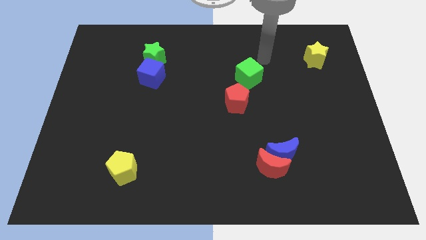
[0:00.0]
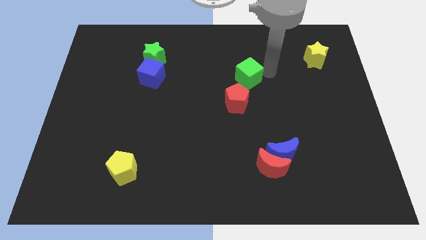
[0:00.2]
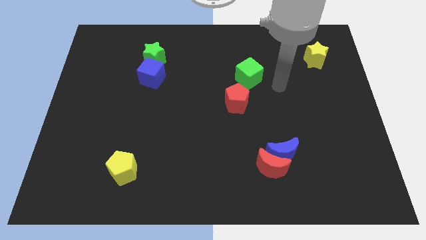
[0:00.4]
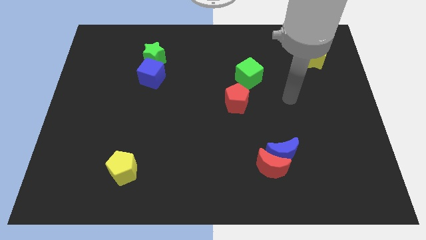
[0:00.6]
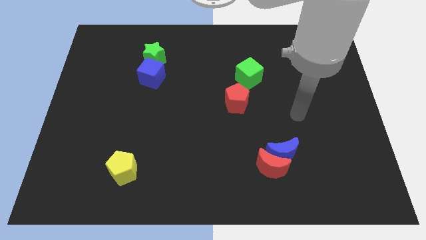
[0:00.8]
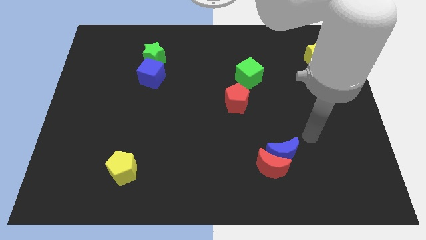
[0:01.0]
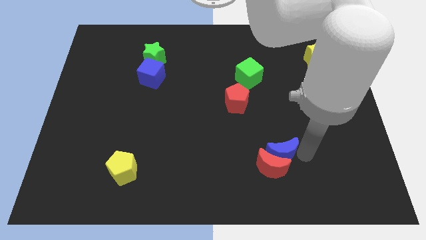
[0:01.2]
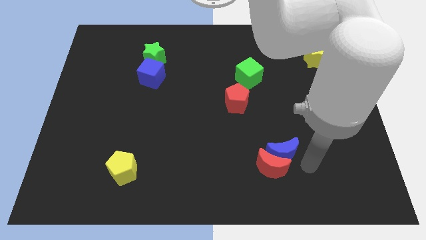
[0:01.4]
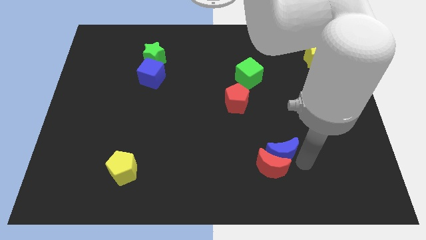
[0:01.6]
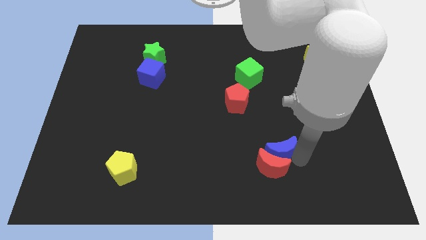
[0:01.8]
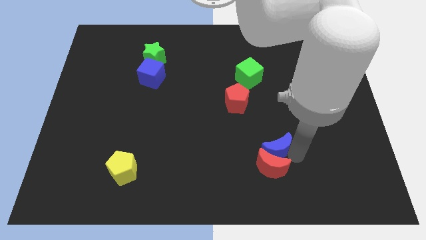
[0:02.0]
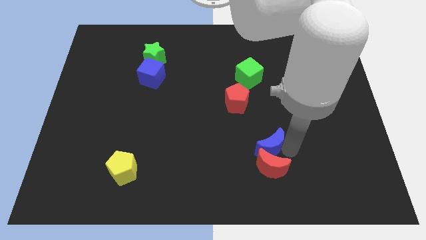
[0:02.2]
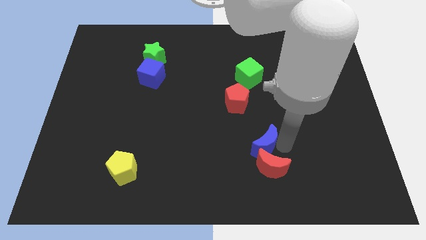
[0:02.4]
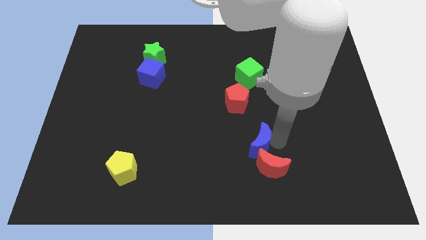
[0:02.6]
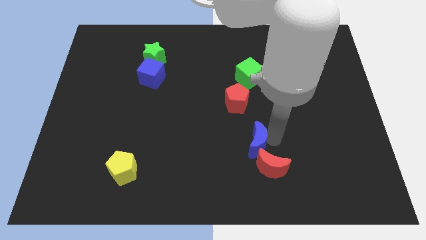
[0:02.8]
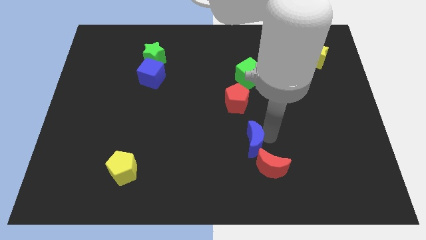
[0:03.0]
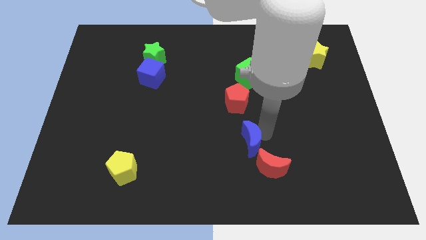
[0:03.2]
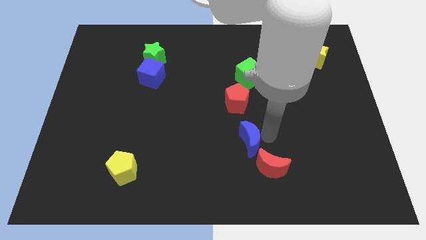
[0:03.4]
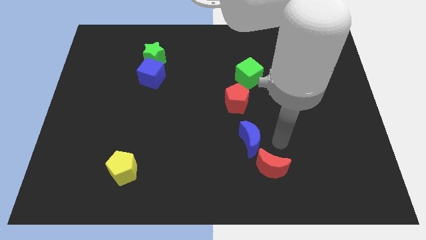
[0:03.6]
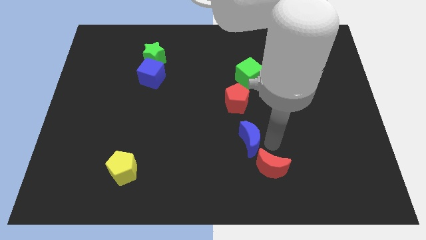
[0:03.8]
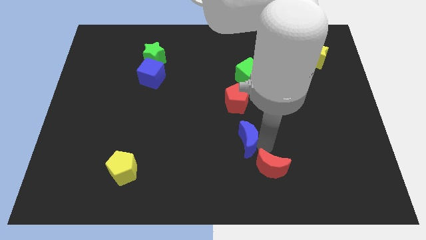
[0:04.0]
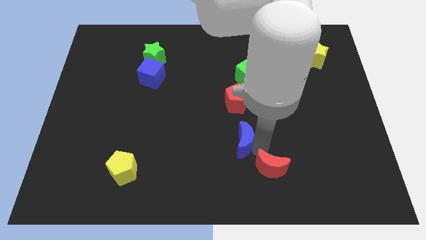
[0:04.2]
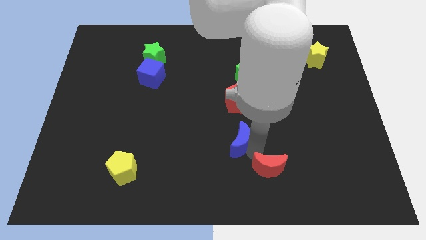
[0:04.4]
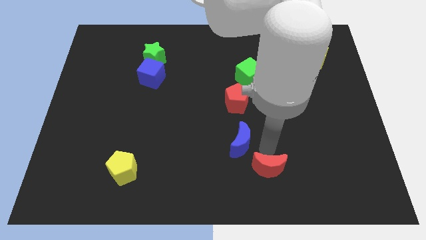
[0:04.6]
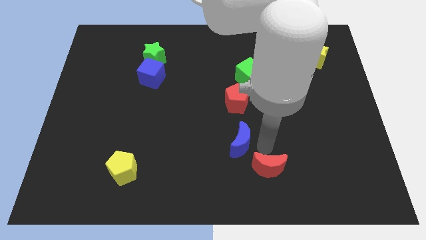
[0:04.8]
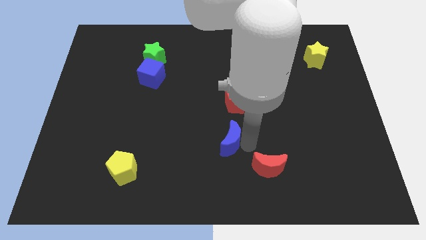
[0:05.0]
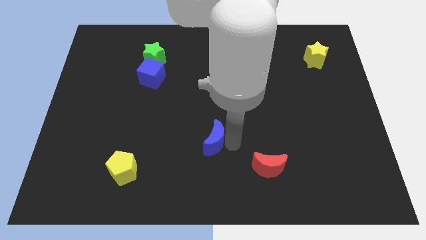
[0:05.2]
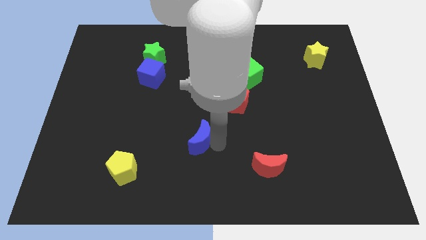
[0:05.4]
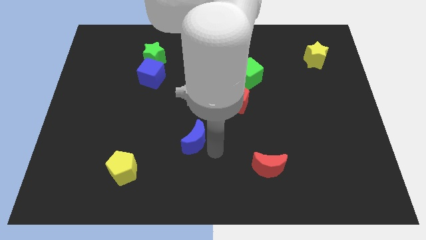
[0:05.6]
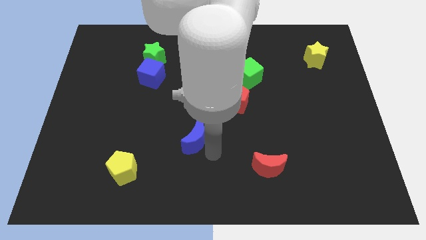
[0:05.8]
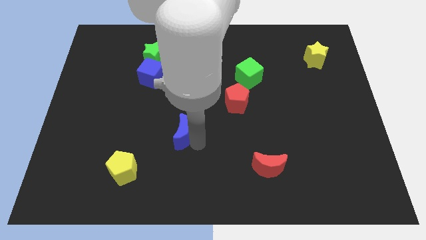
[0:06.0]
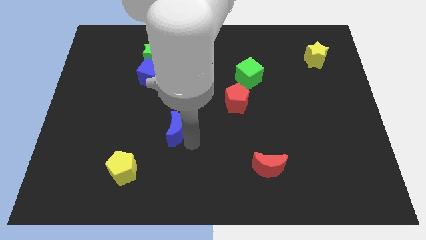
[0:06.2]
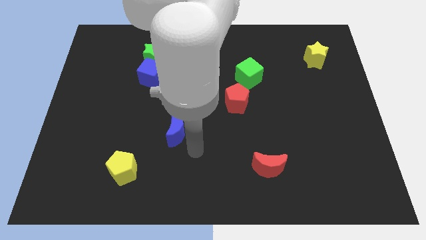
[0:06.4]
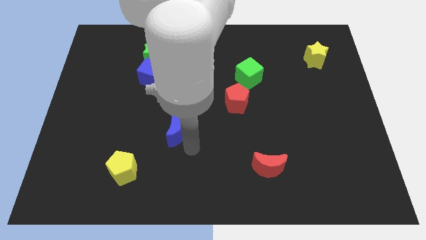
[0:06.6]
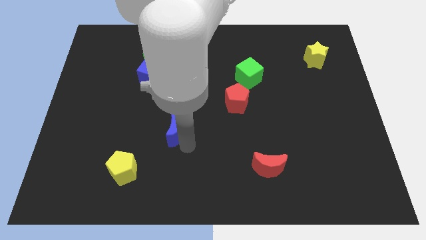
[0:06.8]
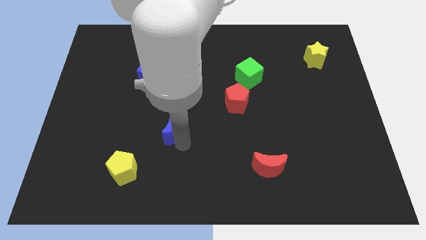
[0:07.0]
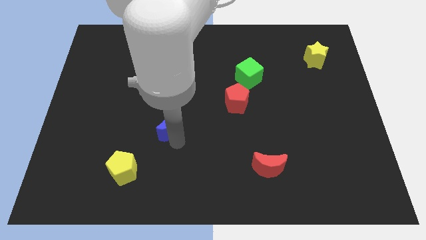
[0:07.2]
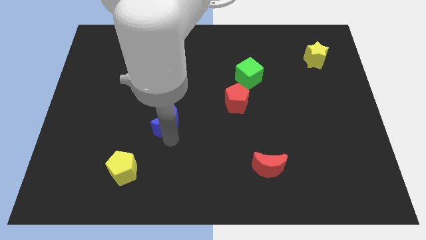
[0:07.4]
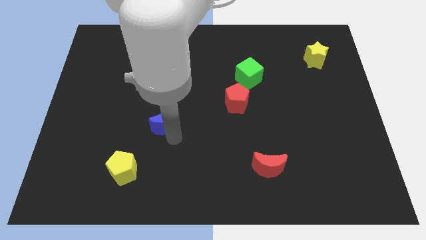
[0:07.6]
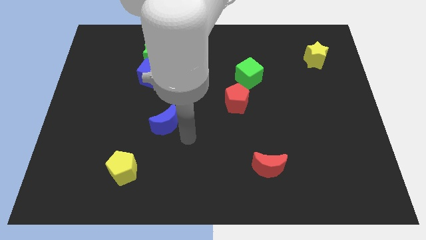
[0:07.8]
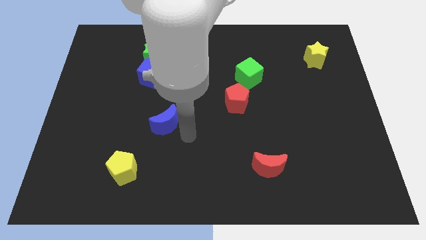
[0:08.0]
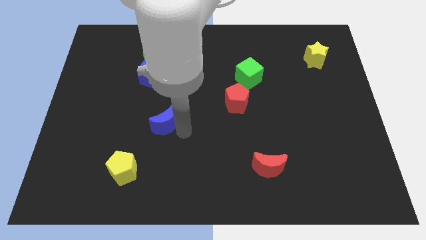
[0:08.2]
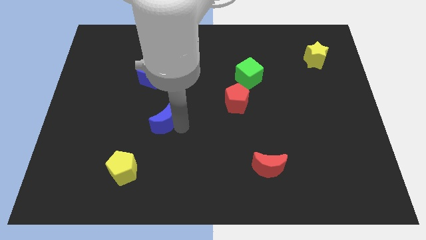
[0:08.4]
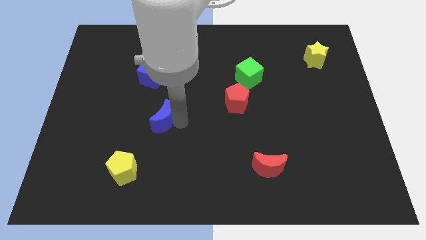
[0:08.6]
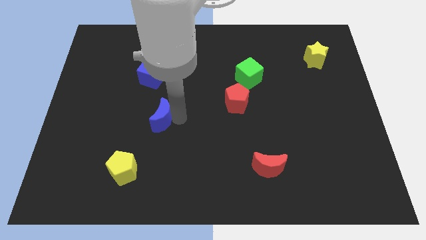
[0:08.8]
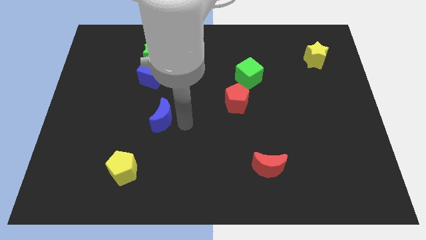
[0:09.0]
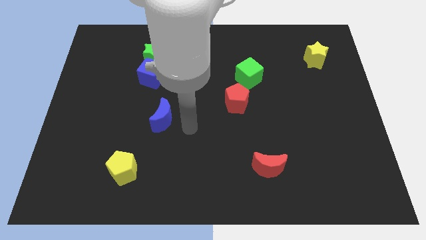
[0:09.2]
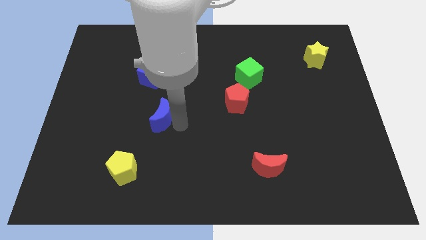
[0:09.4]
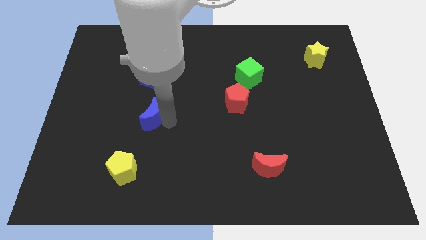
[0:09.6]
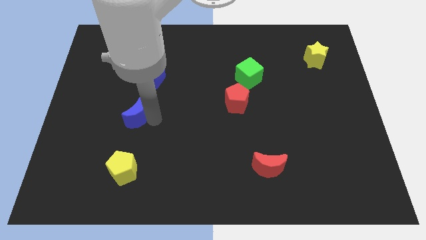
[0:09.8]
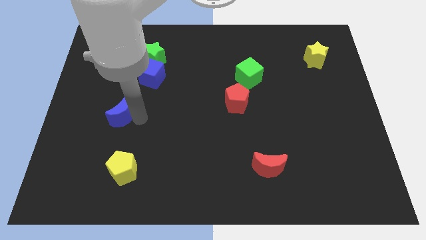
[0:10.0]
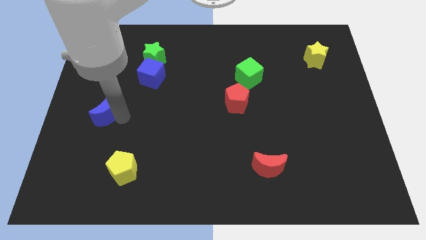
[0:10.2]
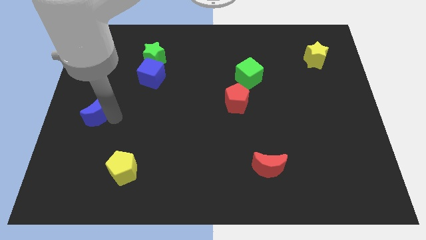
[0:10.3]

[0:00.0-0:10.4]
push the blue moon to the left side of the board

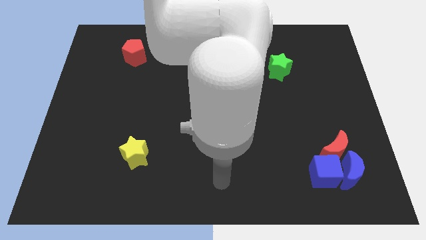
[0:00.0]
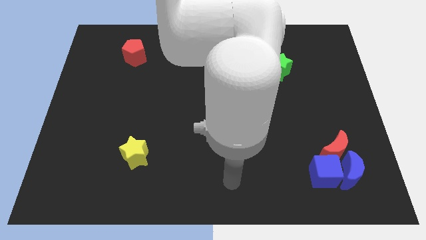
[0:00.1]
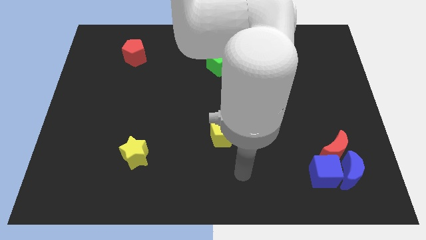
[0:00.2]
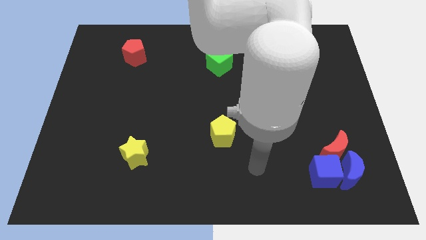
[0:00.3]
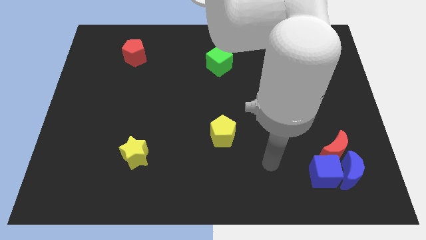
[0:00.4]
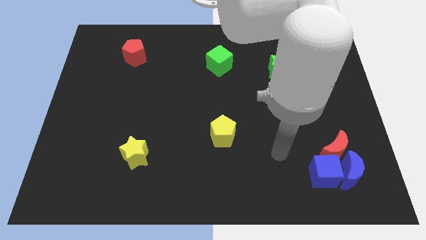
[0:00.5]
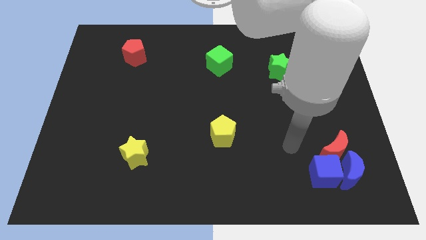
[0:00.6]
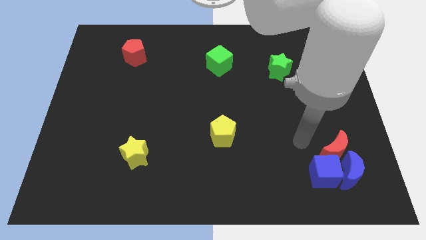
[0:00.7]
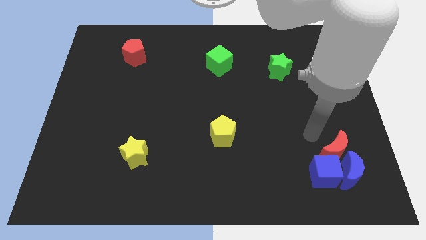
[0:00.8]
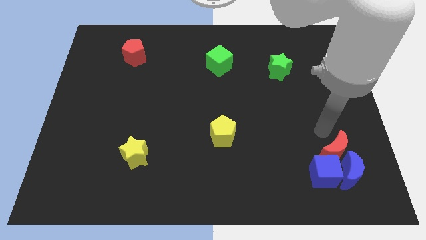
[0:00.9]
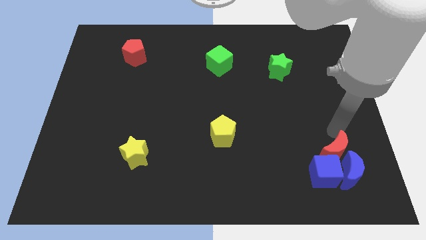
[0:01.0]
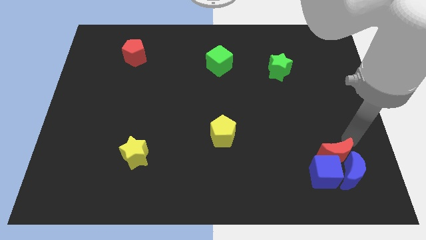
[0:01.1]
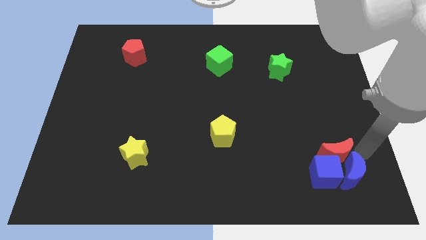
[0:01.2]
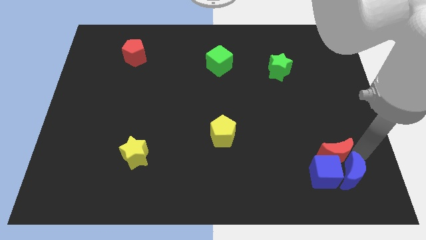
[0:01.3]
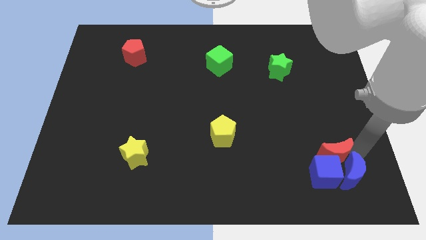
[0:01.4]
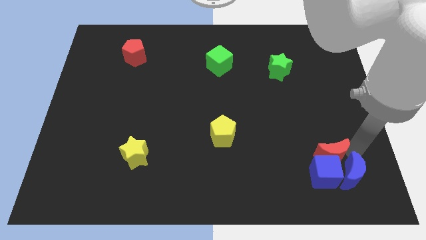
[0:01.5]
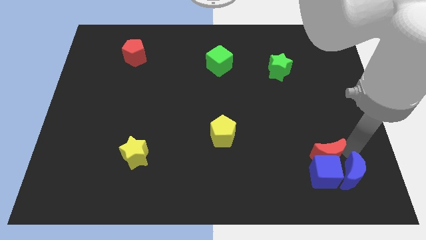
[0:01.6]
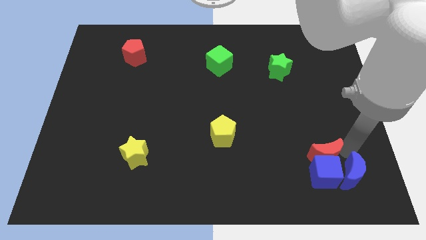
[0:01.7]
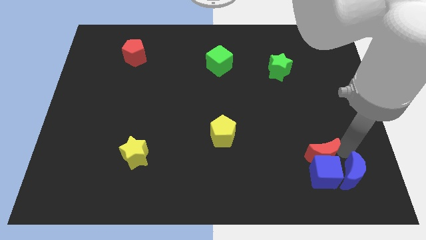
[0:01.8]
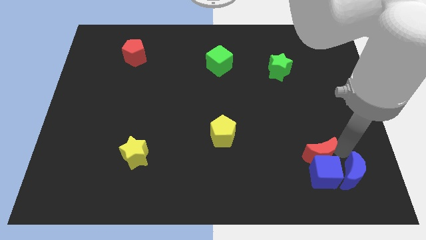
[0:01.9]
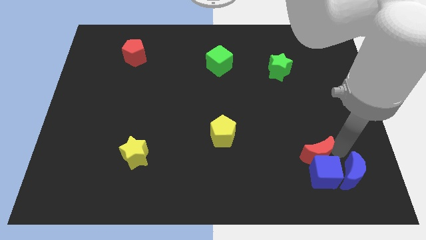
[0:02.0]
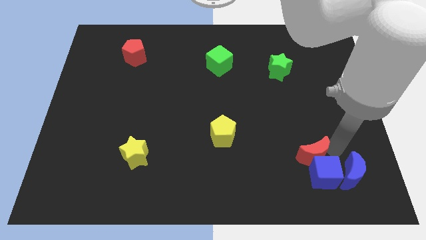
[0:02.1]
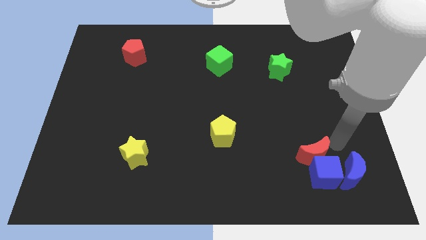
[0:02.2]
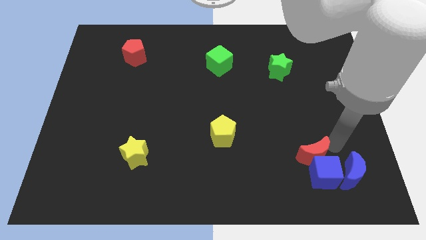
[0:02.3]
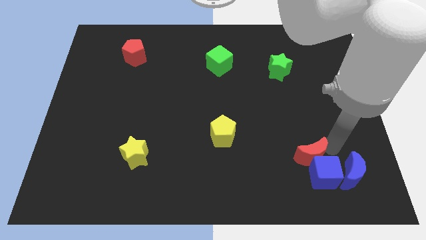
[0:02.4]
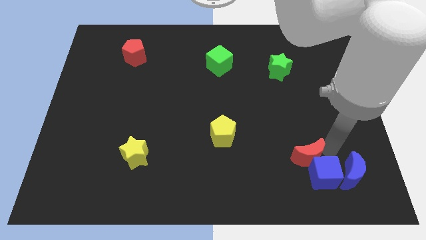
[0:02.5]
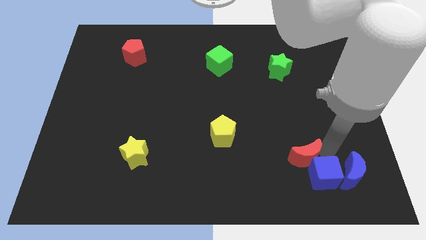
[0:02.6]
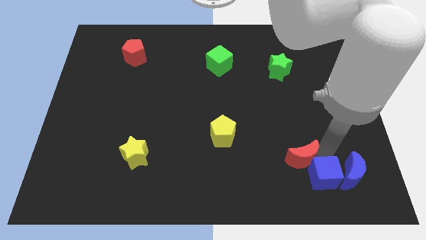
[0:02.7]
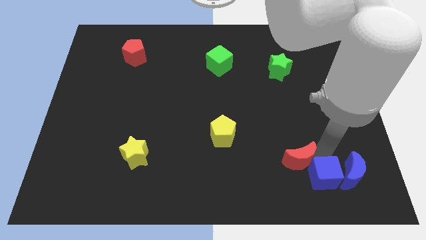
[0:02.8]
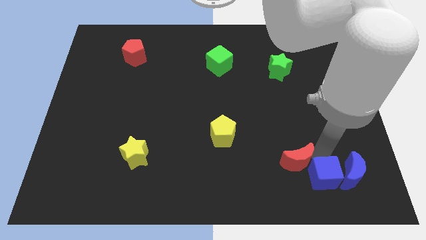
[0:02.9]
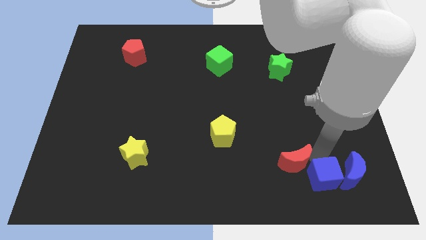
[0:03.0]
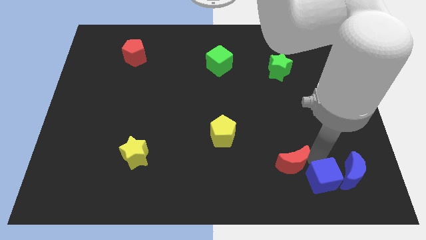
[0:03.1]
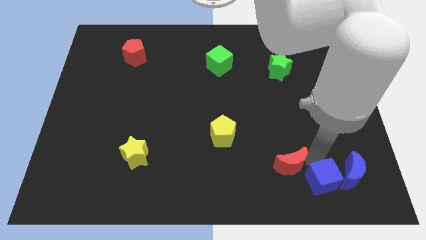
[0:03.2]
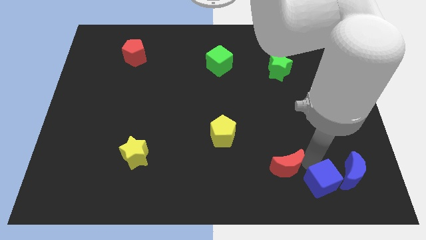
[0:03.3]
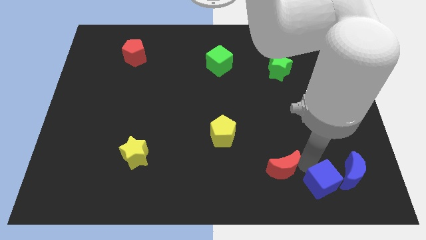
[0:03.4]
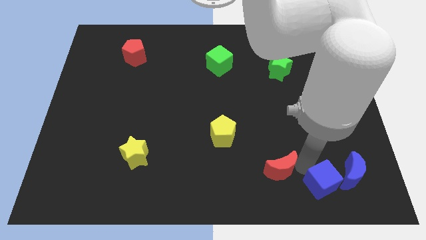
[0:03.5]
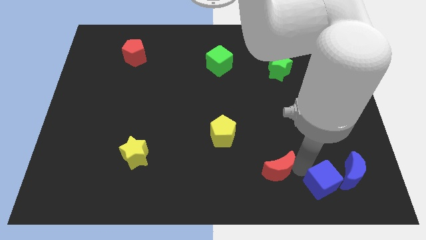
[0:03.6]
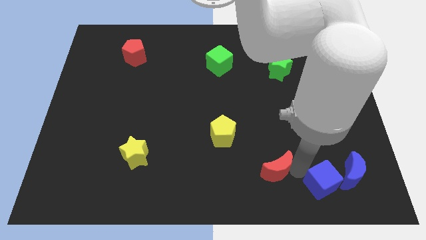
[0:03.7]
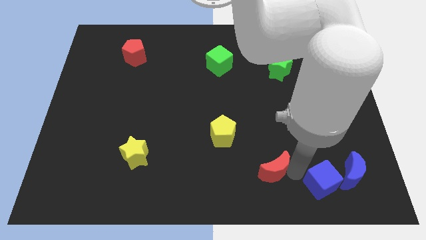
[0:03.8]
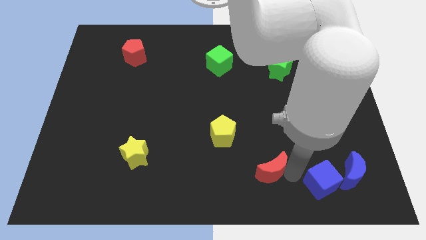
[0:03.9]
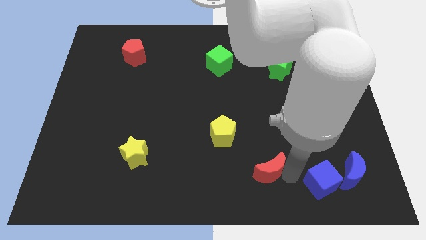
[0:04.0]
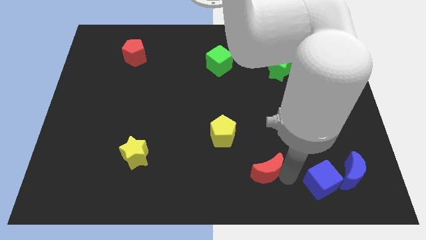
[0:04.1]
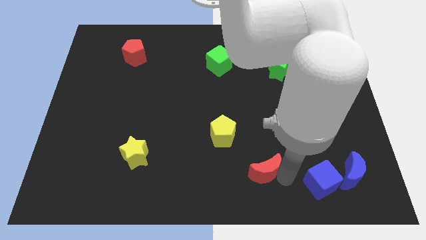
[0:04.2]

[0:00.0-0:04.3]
slide the red moon to the bottom side
